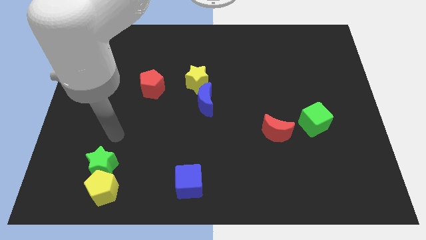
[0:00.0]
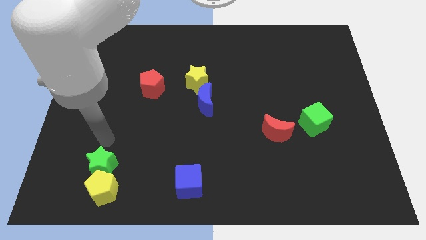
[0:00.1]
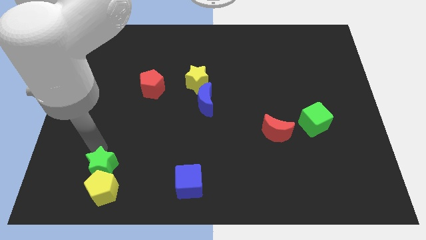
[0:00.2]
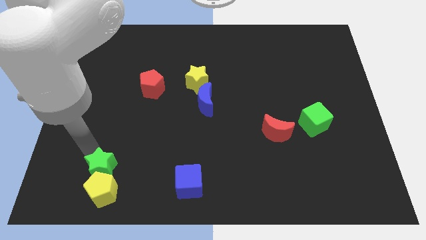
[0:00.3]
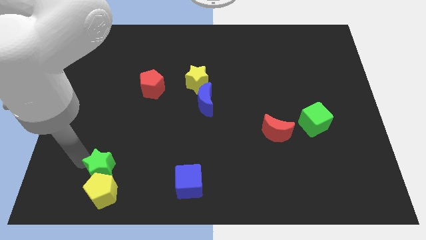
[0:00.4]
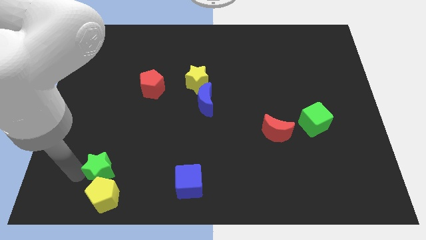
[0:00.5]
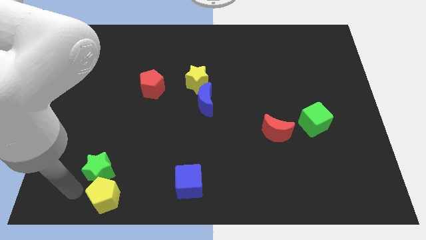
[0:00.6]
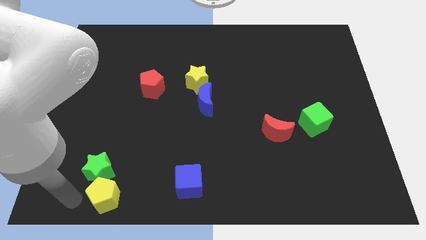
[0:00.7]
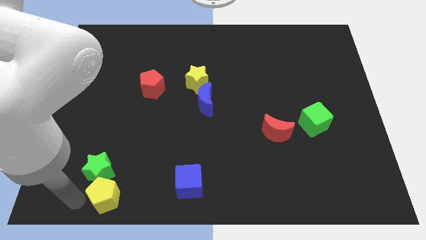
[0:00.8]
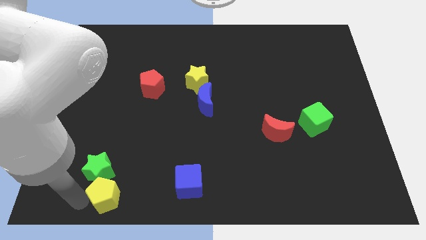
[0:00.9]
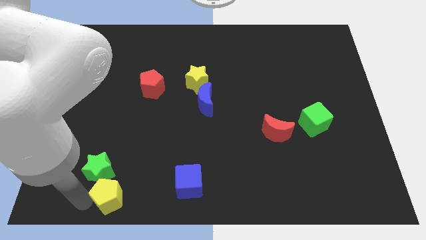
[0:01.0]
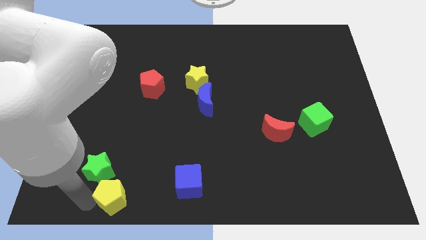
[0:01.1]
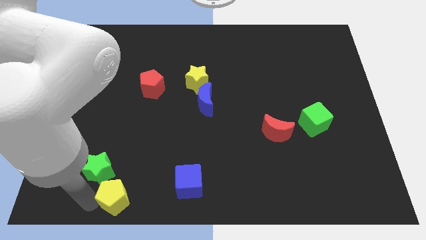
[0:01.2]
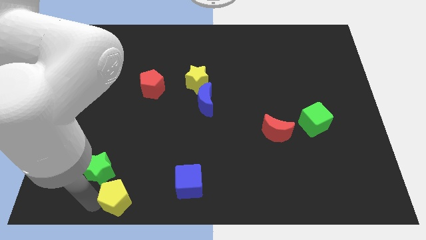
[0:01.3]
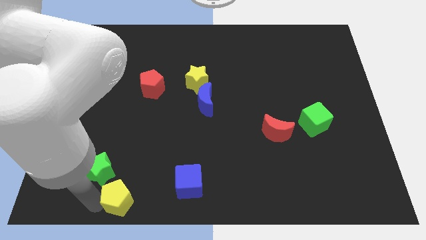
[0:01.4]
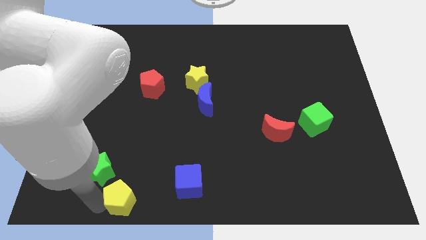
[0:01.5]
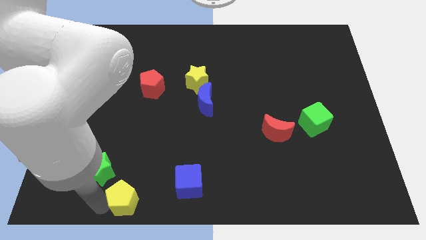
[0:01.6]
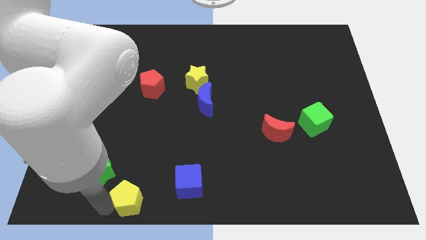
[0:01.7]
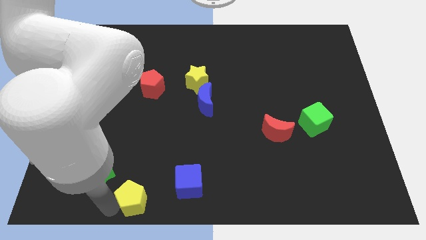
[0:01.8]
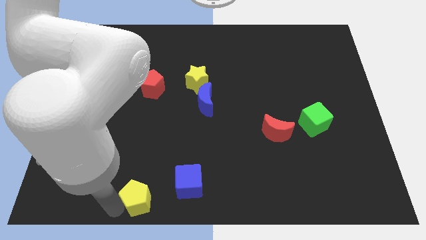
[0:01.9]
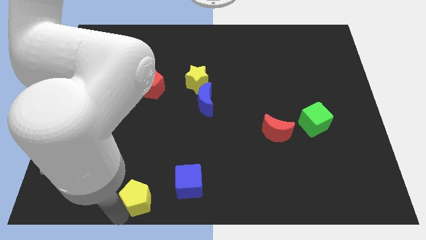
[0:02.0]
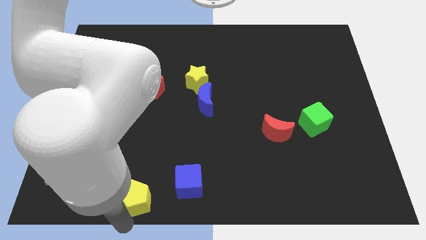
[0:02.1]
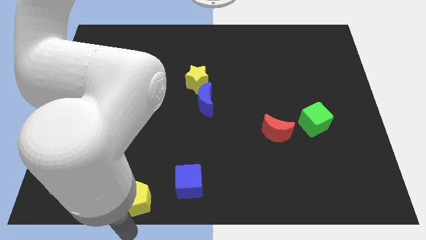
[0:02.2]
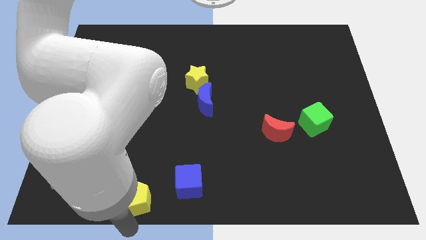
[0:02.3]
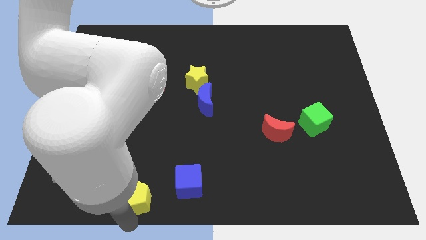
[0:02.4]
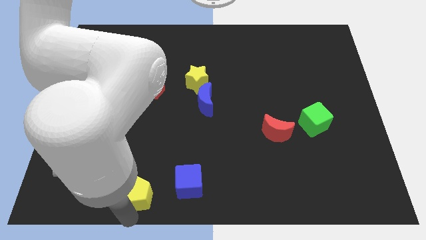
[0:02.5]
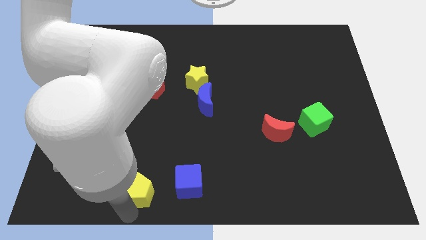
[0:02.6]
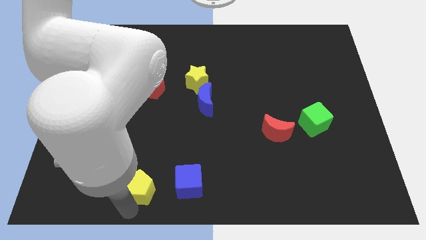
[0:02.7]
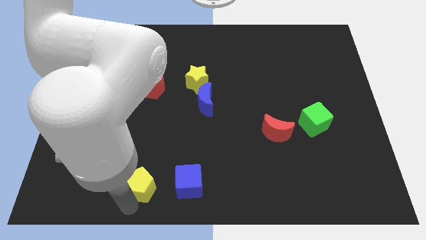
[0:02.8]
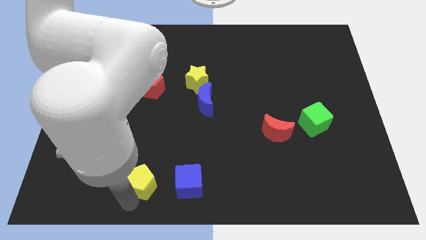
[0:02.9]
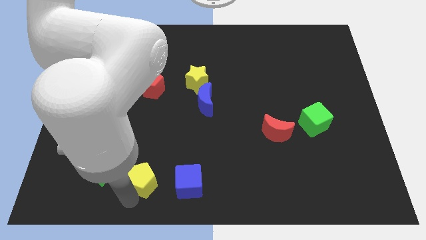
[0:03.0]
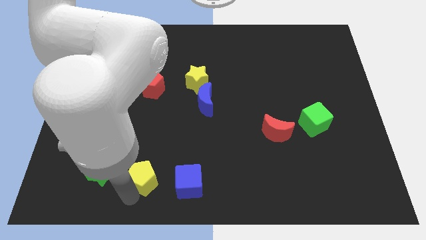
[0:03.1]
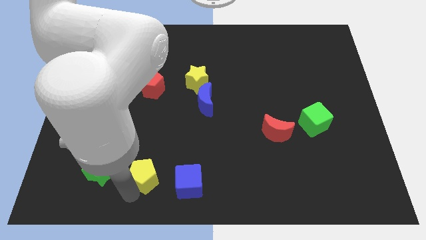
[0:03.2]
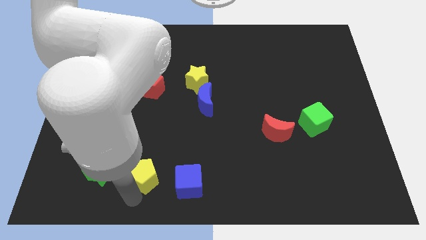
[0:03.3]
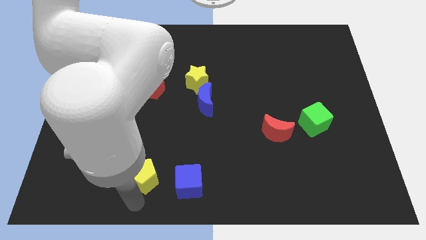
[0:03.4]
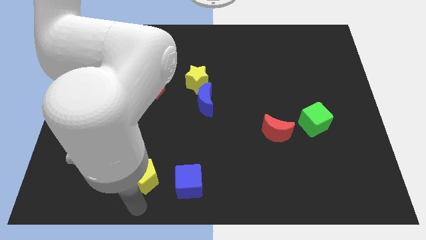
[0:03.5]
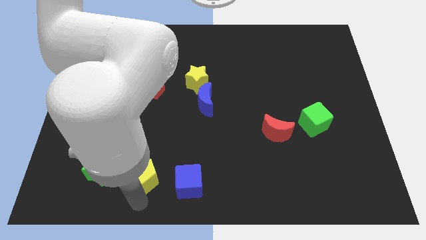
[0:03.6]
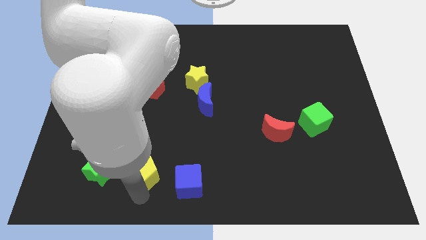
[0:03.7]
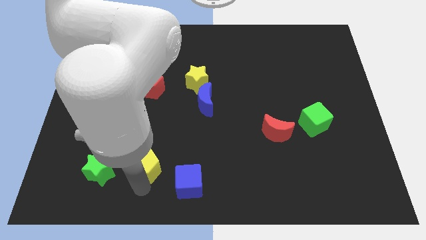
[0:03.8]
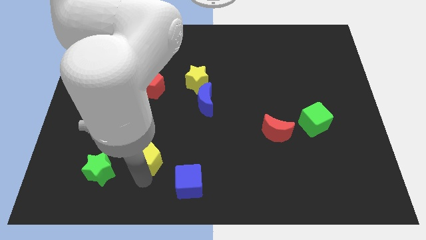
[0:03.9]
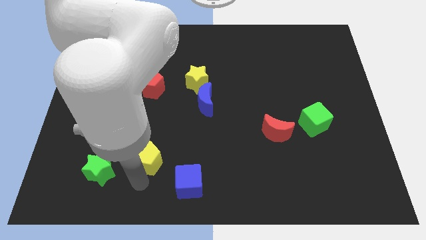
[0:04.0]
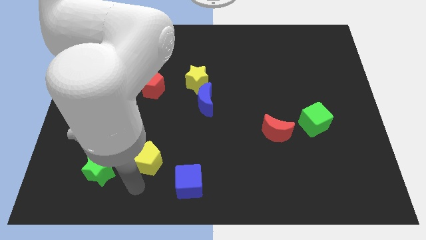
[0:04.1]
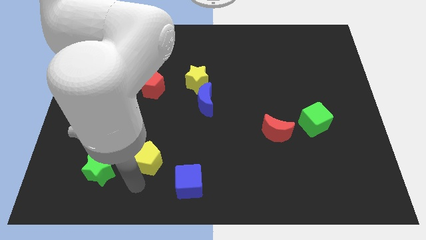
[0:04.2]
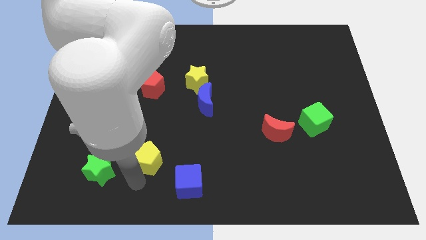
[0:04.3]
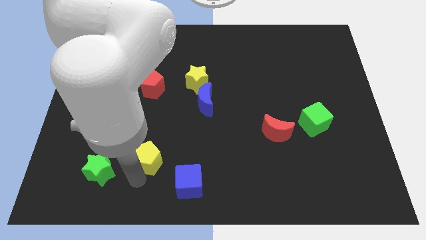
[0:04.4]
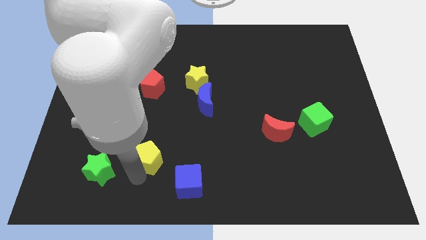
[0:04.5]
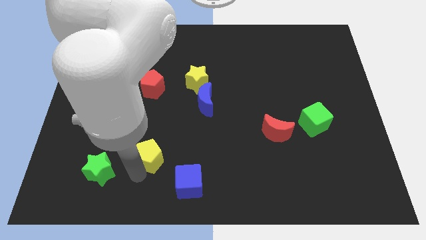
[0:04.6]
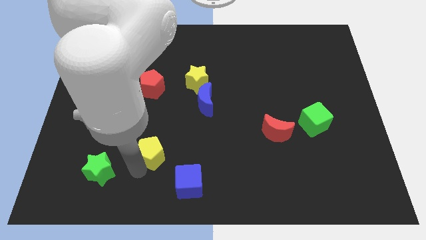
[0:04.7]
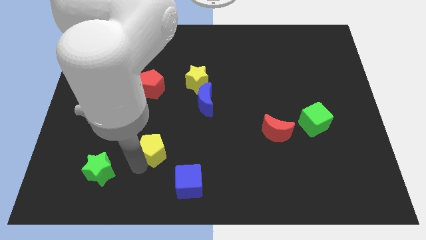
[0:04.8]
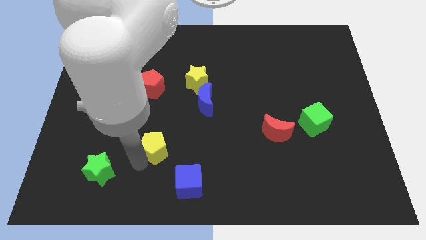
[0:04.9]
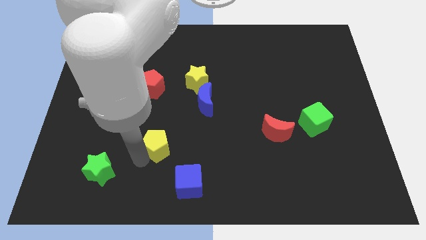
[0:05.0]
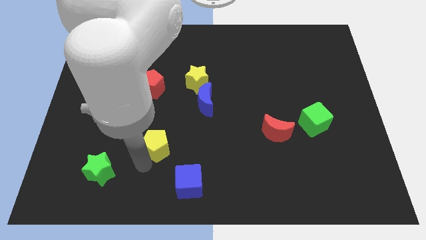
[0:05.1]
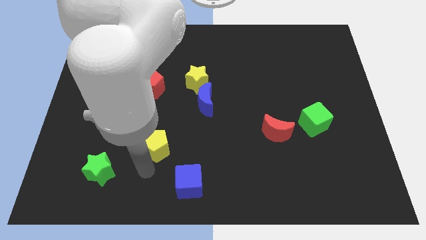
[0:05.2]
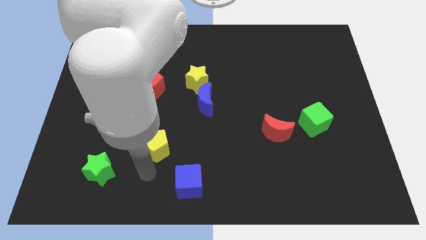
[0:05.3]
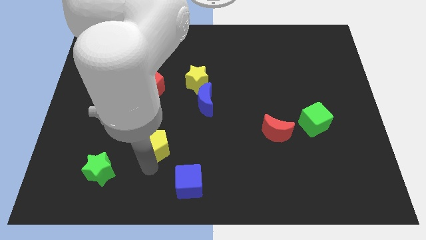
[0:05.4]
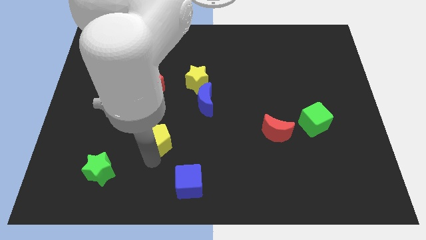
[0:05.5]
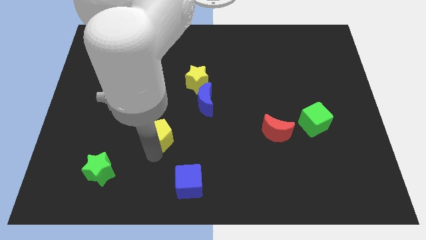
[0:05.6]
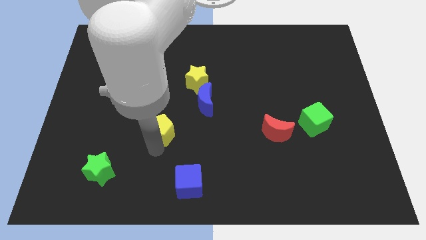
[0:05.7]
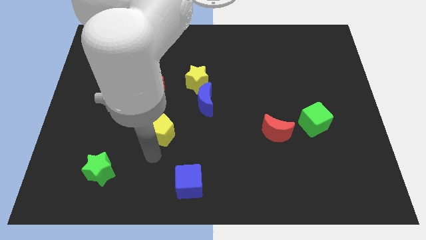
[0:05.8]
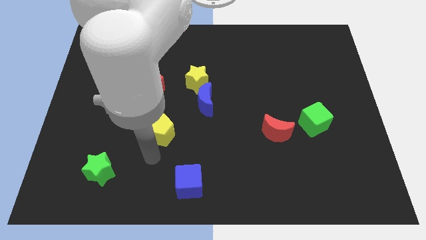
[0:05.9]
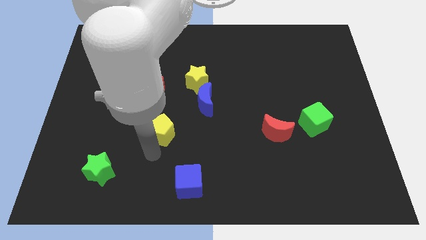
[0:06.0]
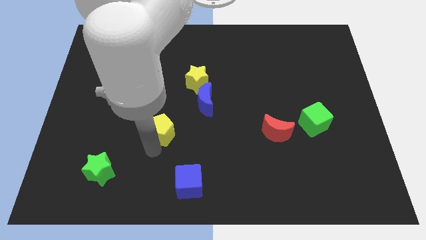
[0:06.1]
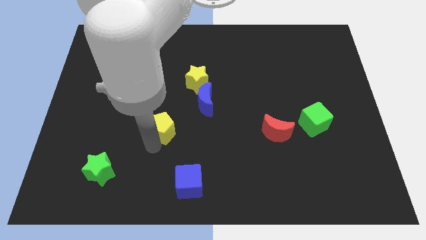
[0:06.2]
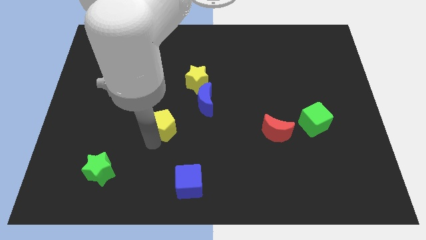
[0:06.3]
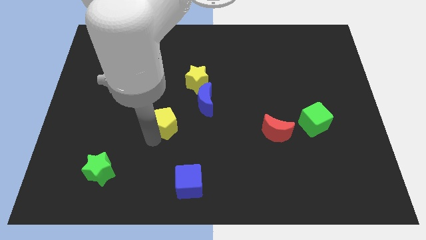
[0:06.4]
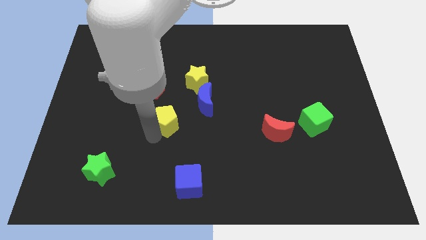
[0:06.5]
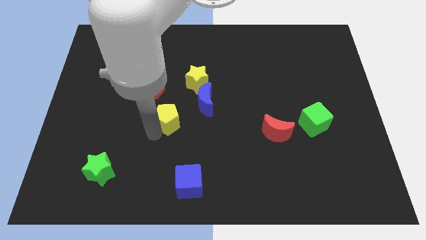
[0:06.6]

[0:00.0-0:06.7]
move the yellow pentagon to the bottom right side of the red pentagon

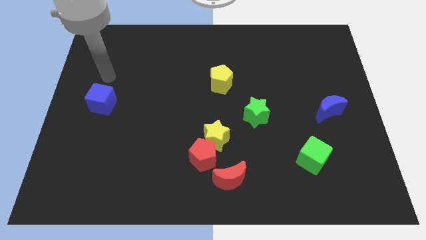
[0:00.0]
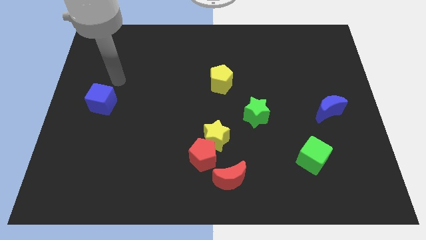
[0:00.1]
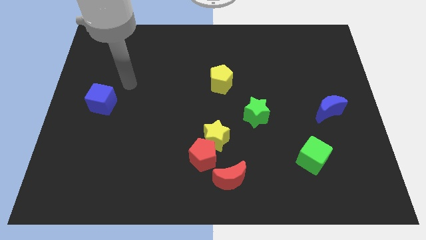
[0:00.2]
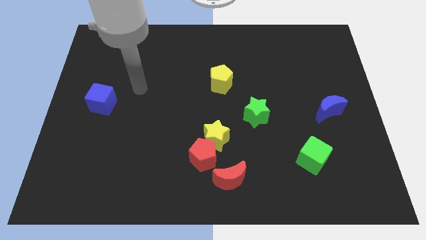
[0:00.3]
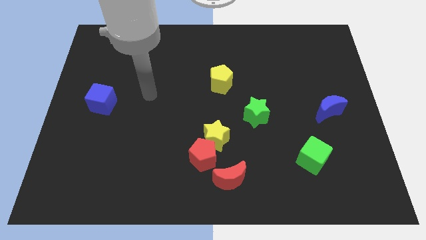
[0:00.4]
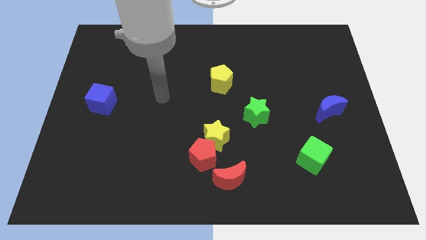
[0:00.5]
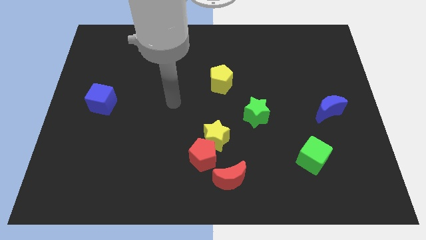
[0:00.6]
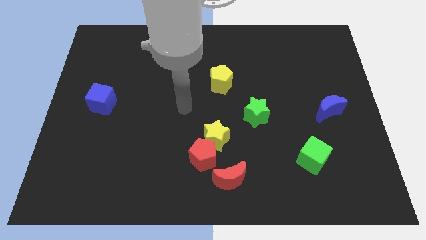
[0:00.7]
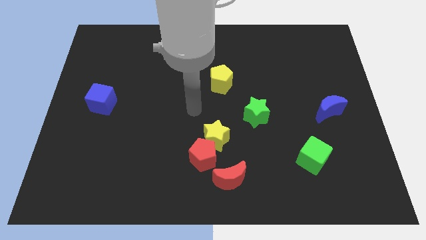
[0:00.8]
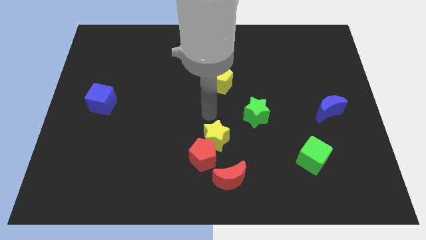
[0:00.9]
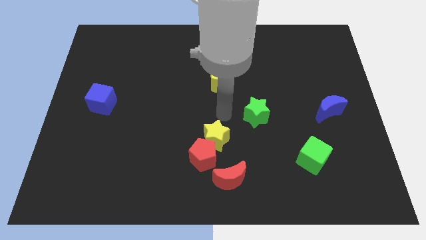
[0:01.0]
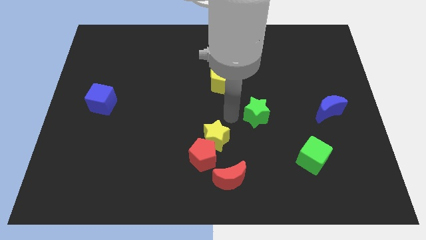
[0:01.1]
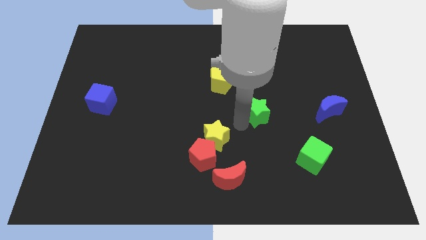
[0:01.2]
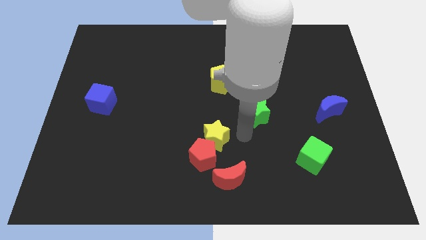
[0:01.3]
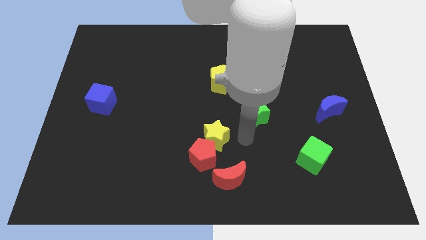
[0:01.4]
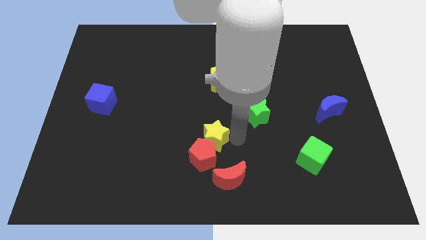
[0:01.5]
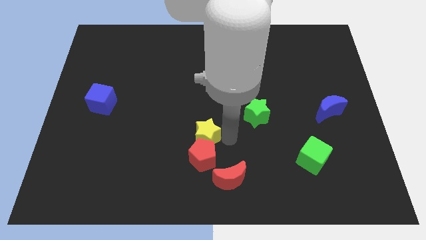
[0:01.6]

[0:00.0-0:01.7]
move the yellow star to the top left side of the red pentagon
